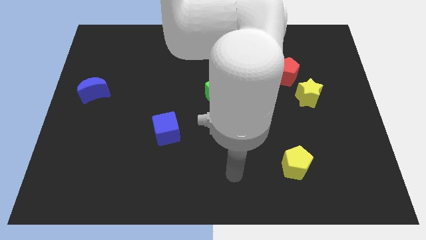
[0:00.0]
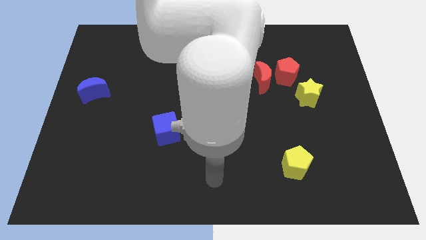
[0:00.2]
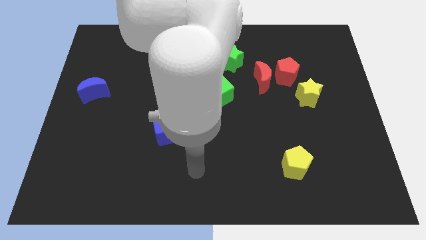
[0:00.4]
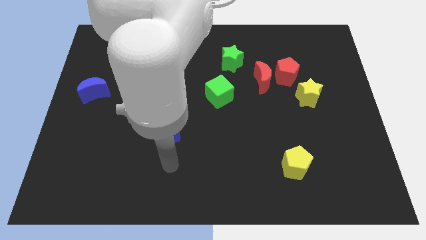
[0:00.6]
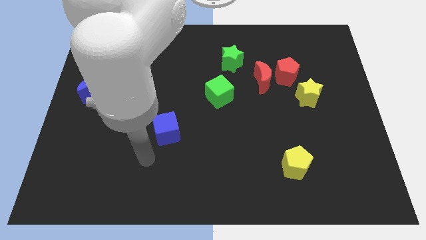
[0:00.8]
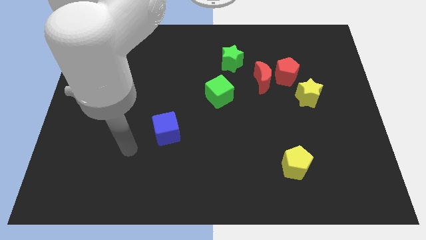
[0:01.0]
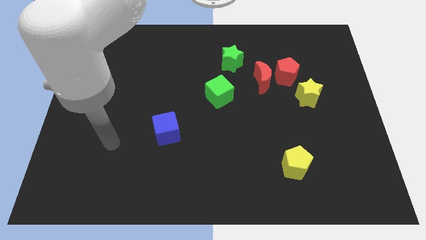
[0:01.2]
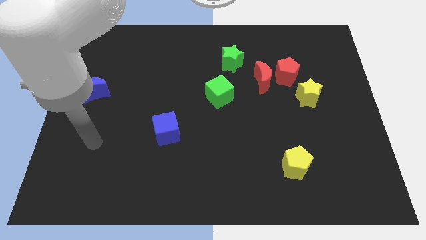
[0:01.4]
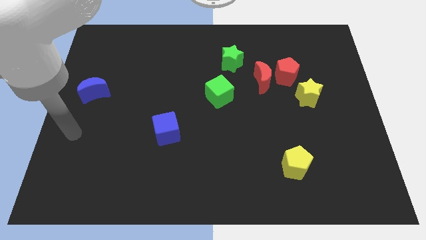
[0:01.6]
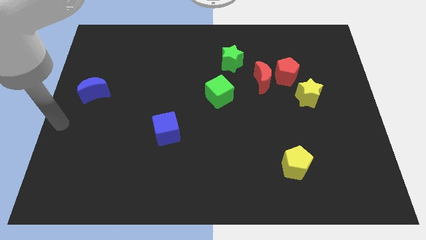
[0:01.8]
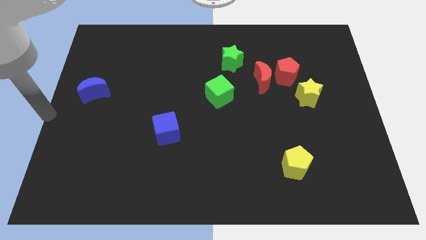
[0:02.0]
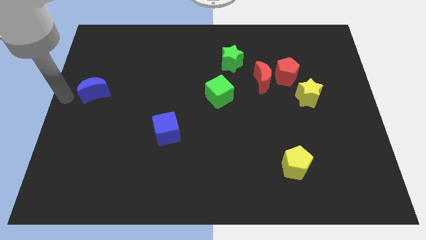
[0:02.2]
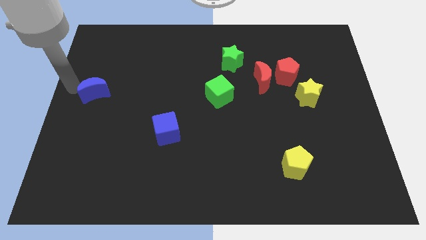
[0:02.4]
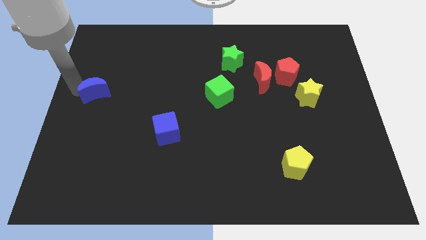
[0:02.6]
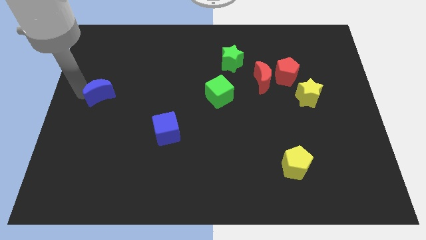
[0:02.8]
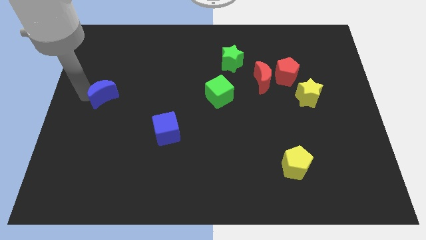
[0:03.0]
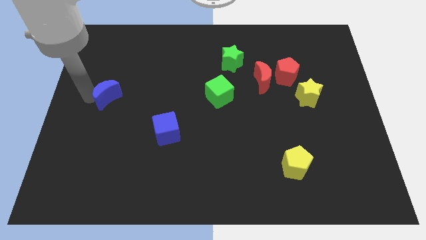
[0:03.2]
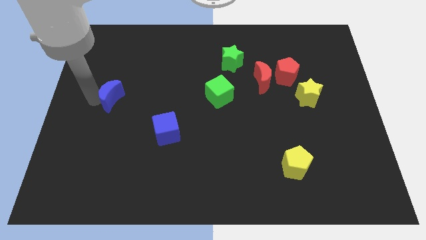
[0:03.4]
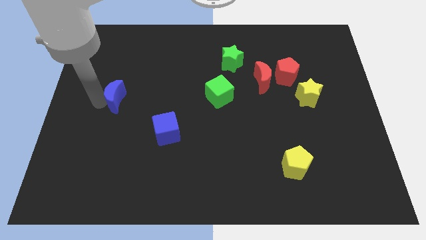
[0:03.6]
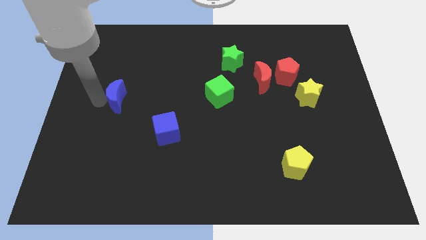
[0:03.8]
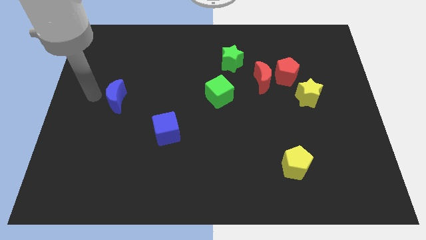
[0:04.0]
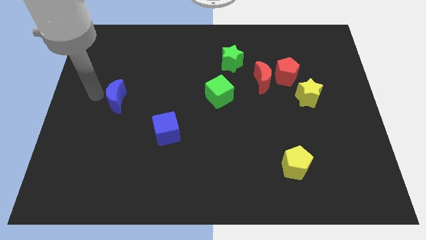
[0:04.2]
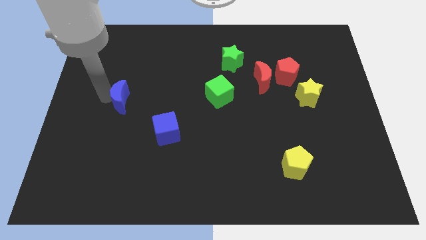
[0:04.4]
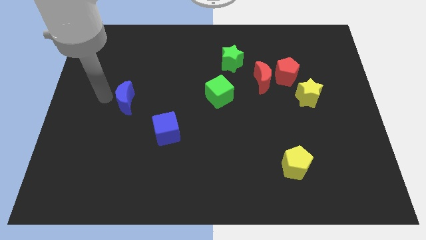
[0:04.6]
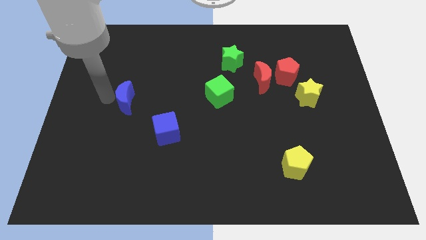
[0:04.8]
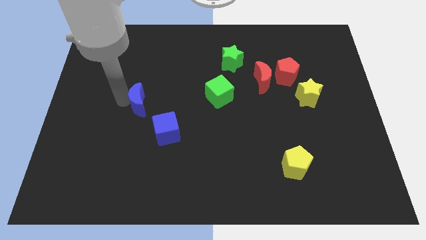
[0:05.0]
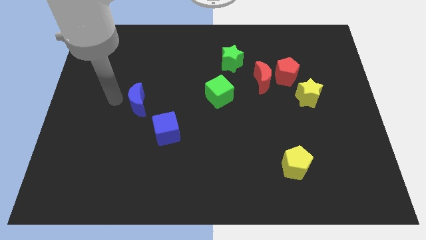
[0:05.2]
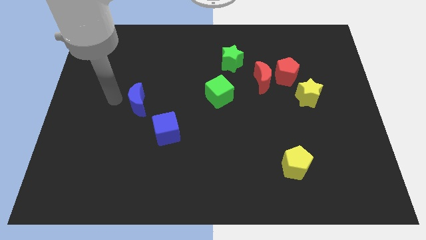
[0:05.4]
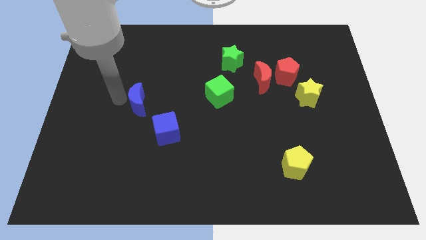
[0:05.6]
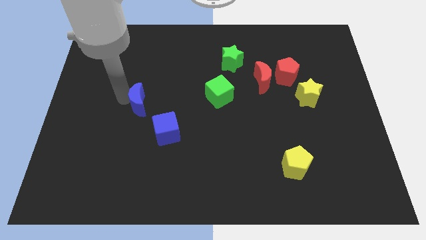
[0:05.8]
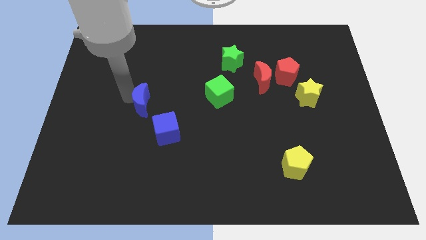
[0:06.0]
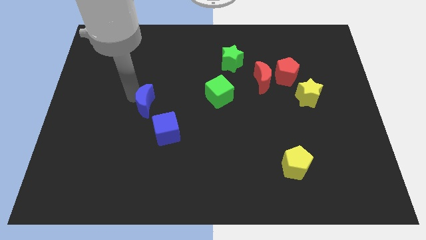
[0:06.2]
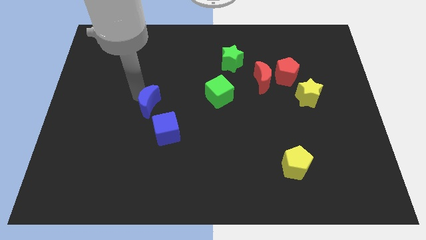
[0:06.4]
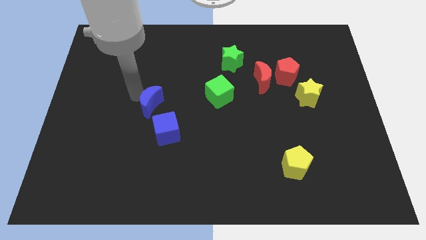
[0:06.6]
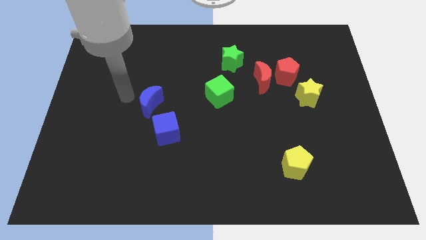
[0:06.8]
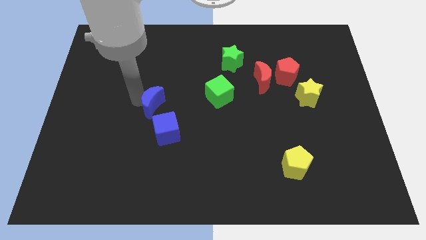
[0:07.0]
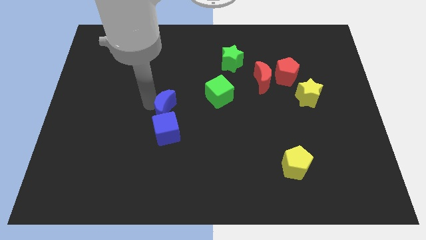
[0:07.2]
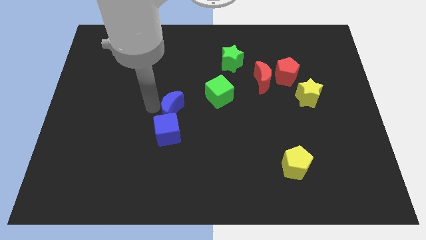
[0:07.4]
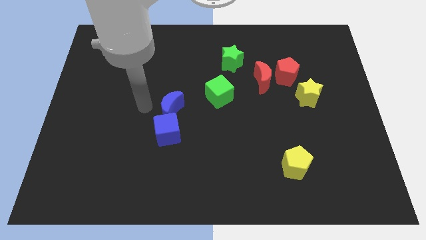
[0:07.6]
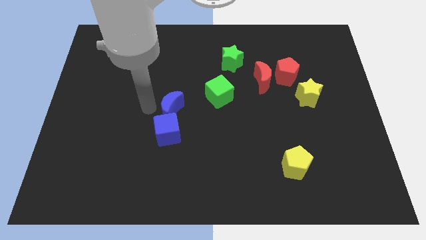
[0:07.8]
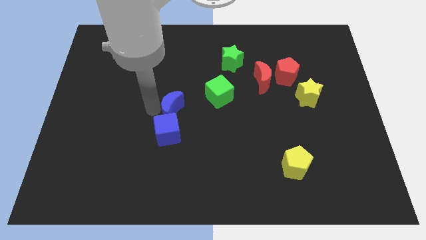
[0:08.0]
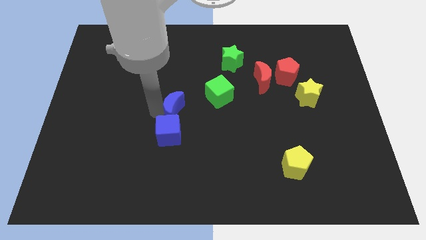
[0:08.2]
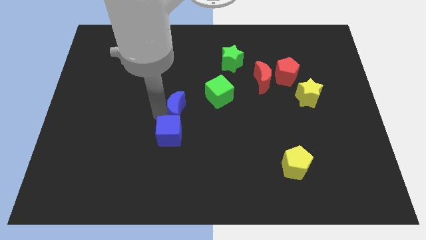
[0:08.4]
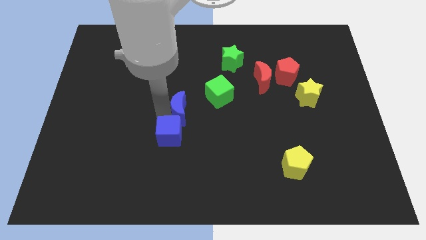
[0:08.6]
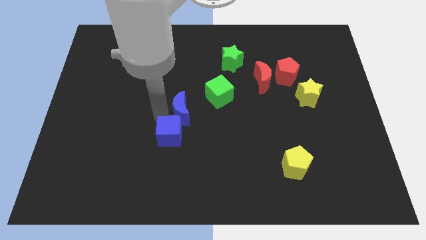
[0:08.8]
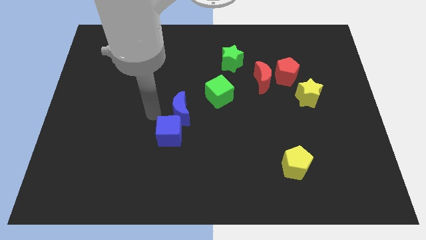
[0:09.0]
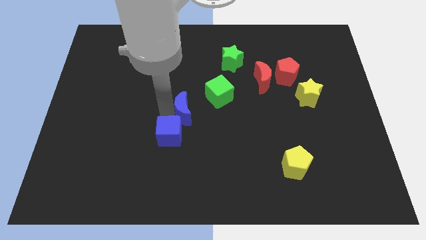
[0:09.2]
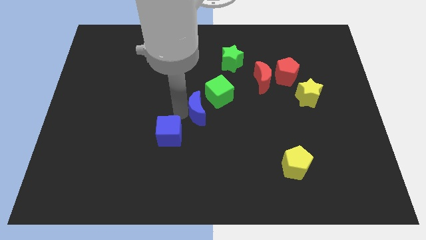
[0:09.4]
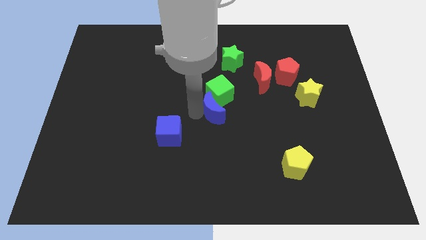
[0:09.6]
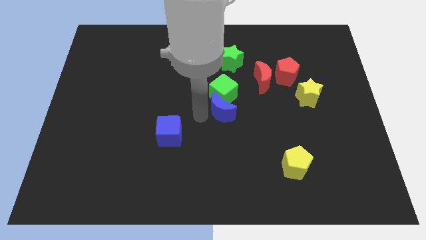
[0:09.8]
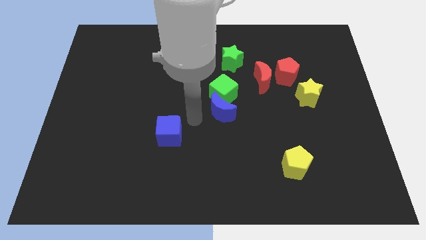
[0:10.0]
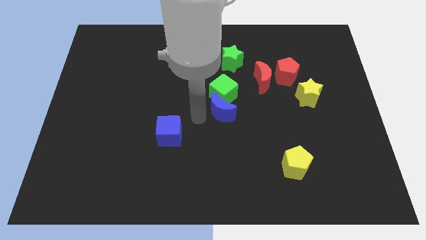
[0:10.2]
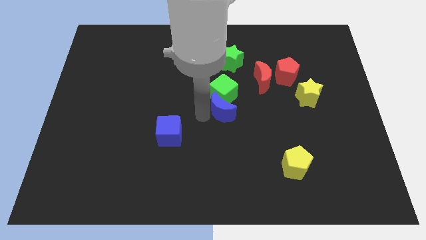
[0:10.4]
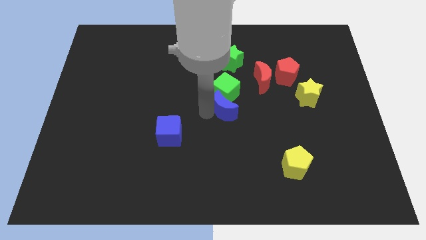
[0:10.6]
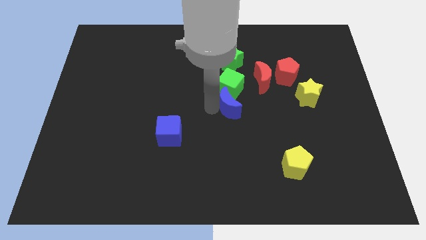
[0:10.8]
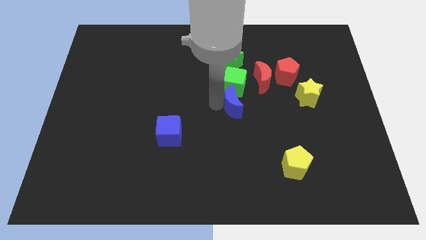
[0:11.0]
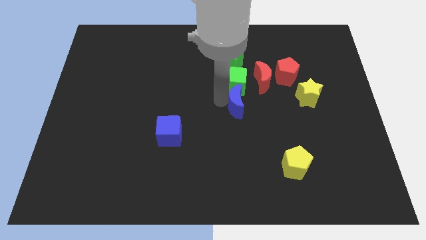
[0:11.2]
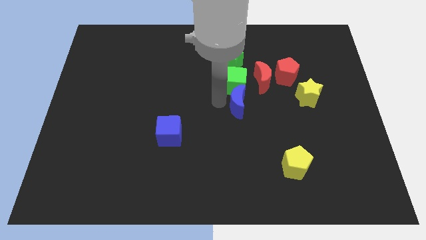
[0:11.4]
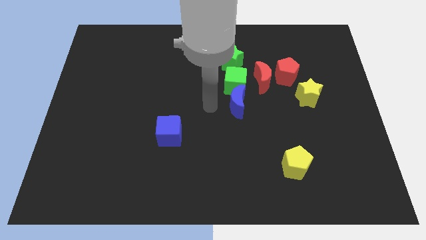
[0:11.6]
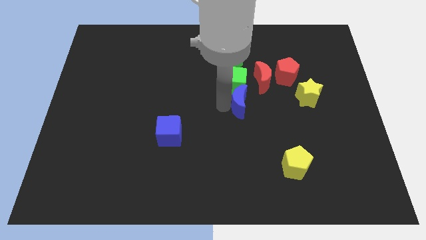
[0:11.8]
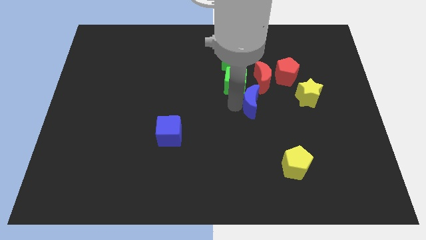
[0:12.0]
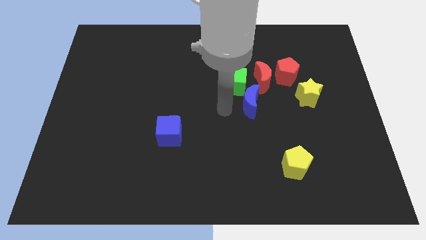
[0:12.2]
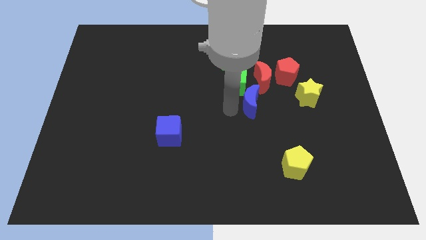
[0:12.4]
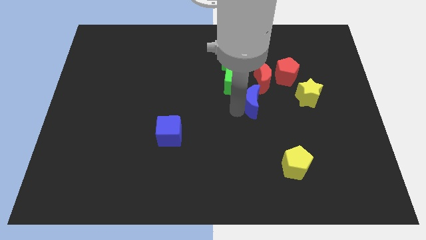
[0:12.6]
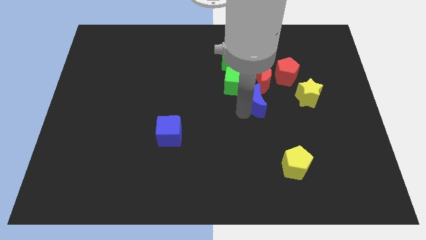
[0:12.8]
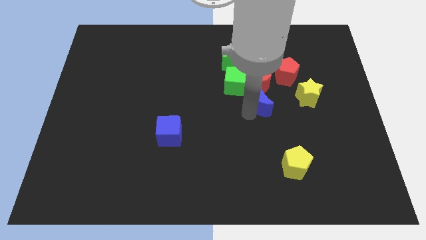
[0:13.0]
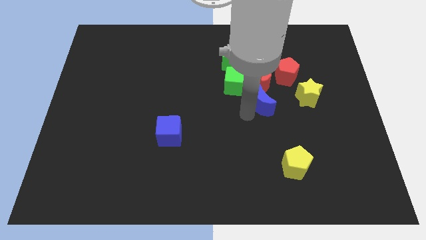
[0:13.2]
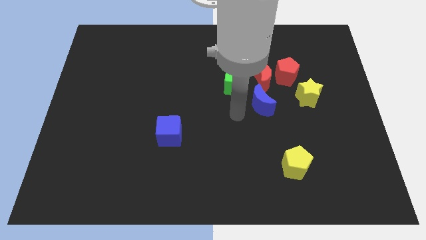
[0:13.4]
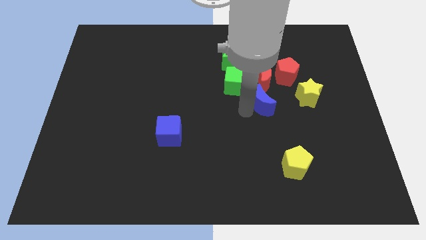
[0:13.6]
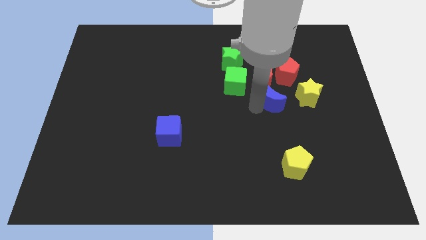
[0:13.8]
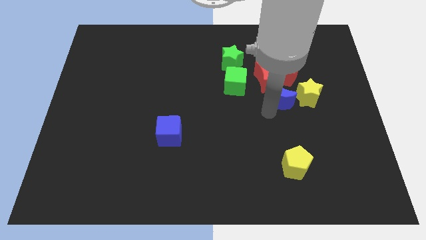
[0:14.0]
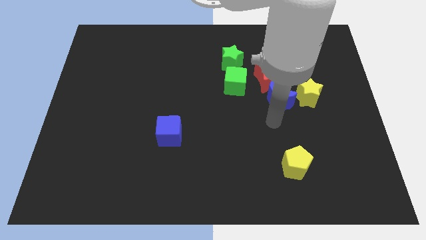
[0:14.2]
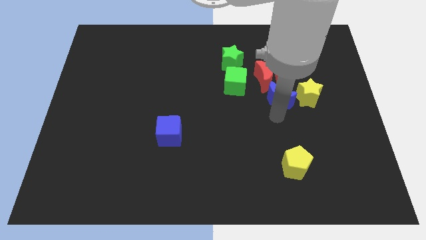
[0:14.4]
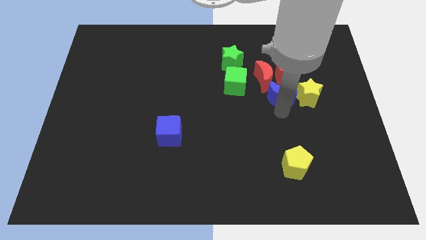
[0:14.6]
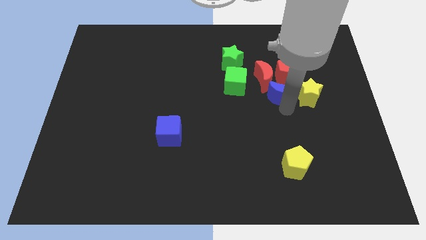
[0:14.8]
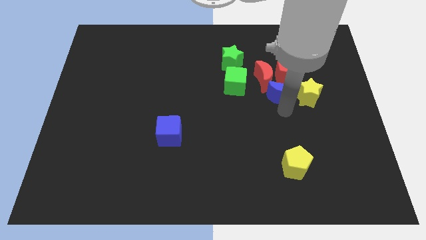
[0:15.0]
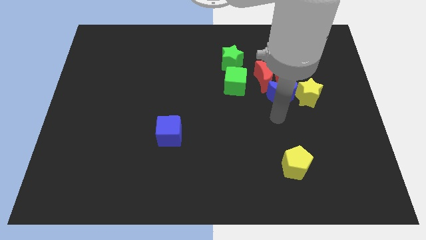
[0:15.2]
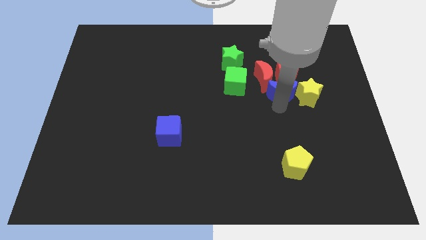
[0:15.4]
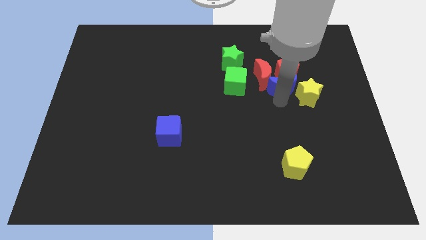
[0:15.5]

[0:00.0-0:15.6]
move the blue moon towards the red pentagon

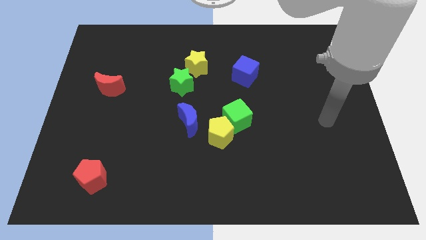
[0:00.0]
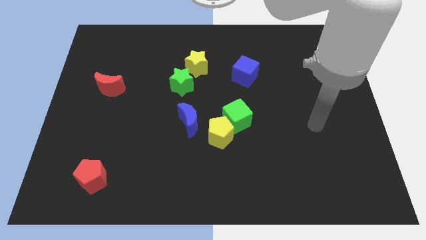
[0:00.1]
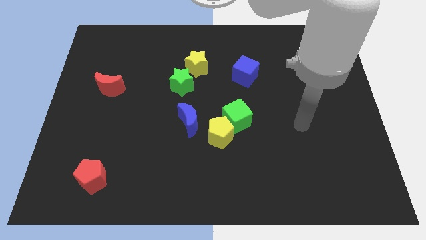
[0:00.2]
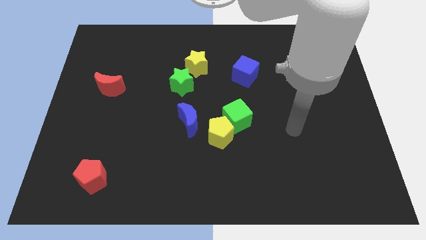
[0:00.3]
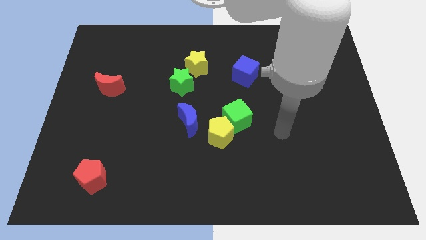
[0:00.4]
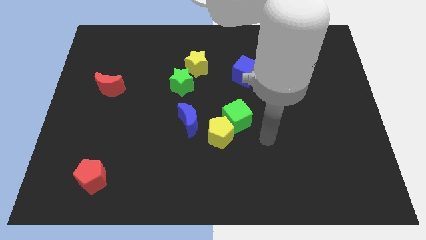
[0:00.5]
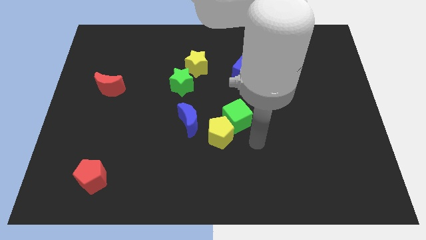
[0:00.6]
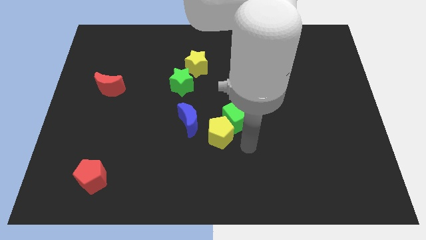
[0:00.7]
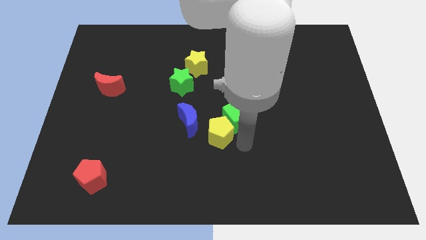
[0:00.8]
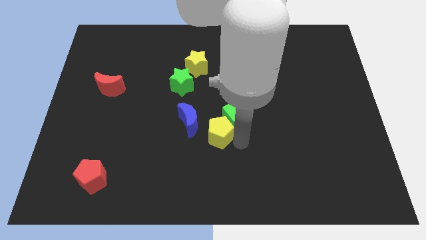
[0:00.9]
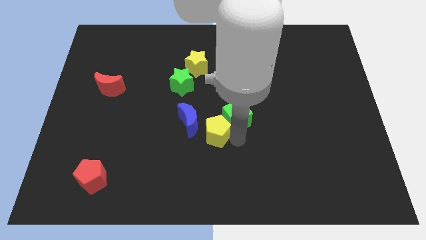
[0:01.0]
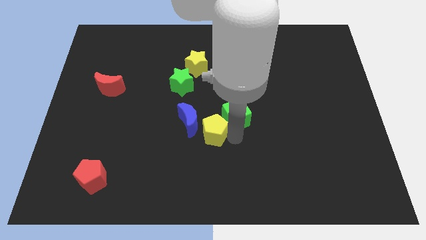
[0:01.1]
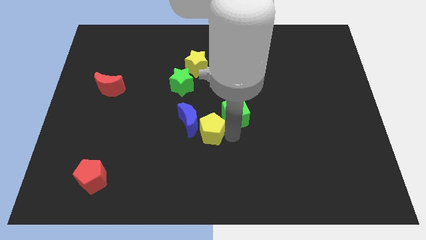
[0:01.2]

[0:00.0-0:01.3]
slide the yellow pentagon close to the blue moon
